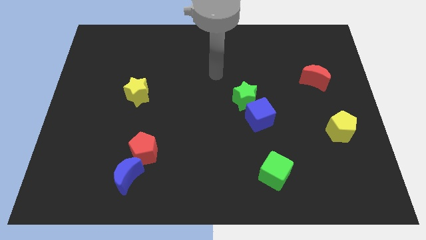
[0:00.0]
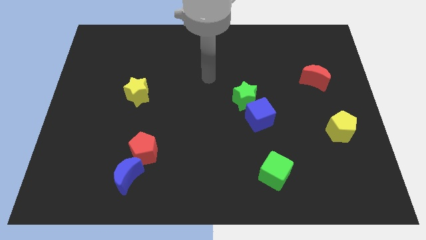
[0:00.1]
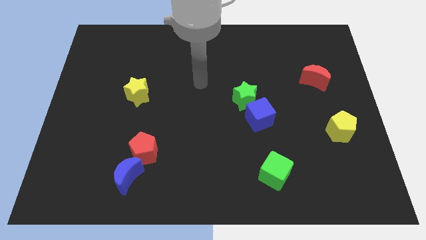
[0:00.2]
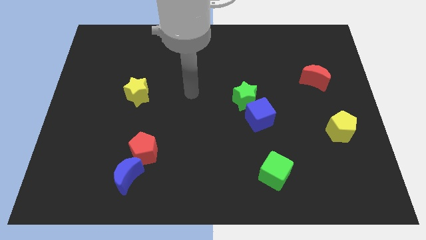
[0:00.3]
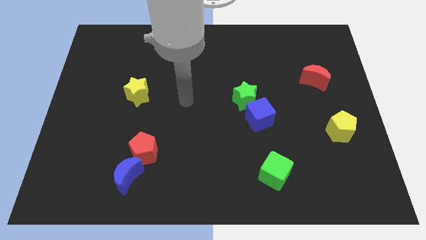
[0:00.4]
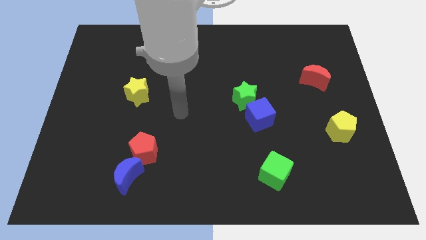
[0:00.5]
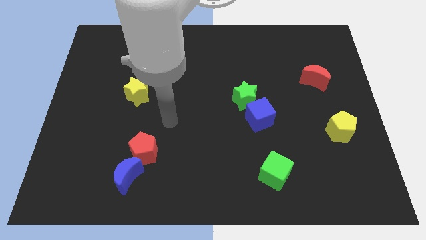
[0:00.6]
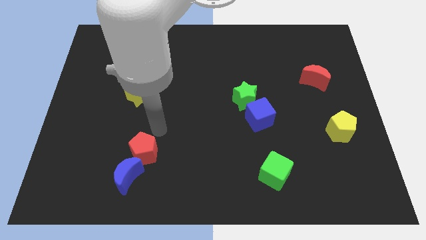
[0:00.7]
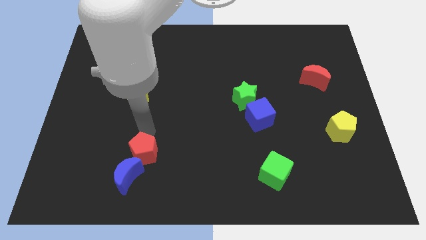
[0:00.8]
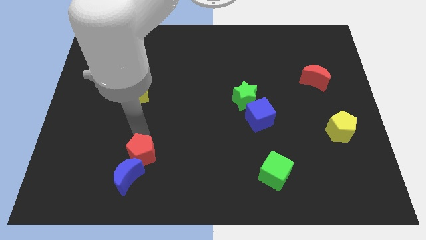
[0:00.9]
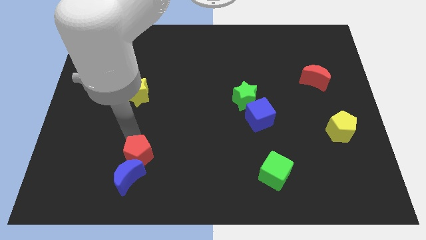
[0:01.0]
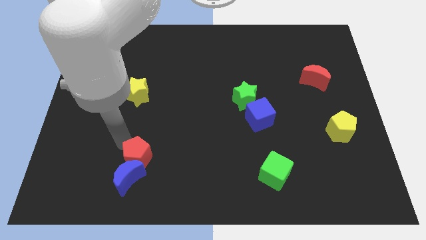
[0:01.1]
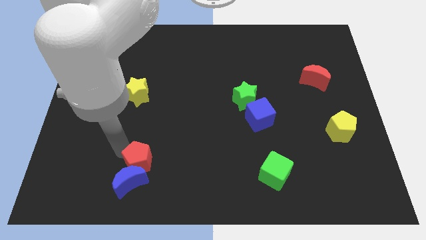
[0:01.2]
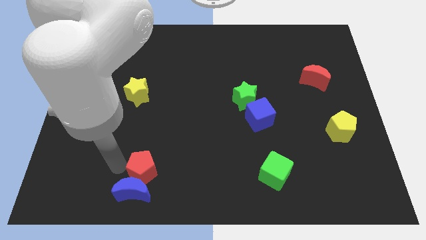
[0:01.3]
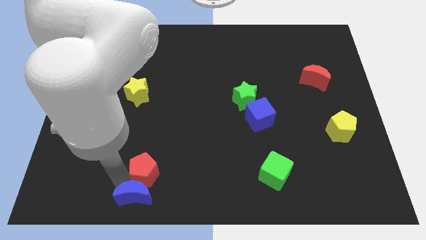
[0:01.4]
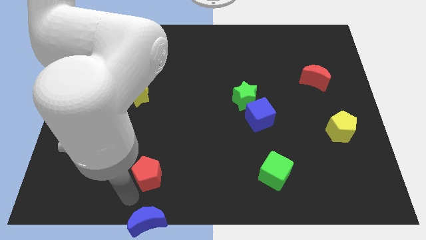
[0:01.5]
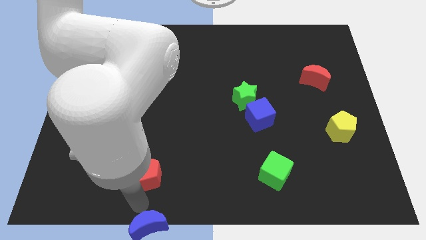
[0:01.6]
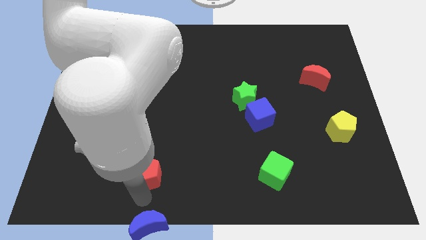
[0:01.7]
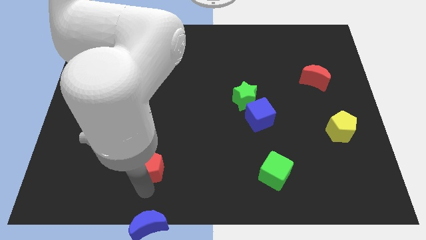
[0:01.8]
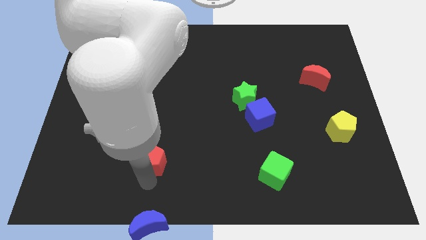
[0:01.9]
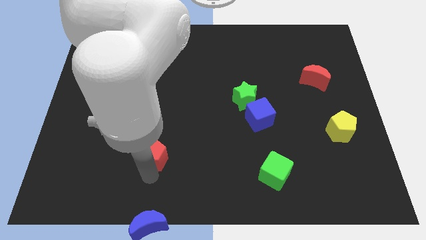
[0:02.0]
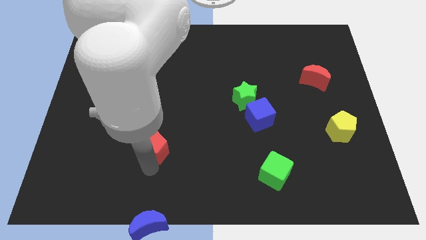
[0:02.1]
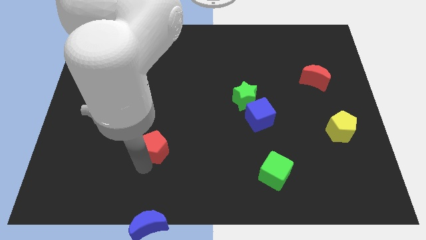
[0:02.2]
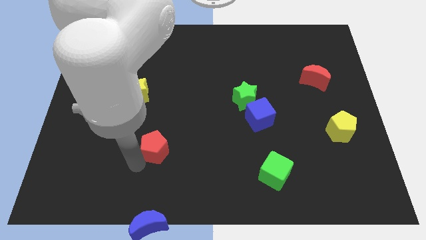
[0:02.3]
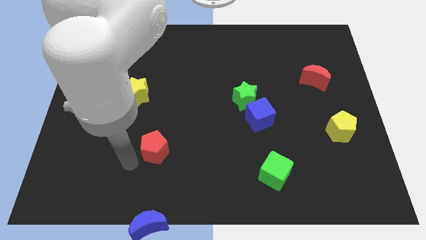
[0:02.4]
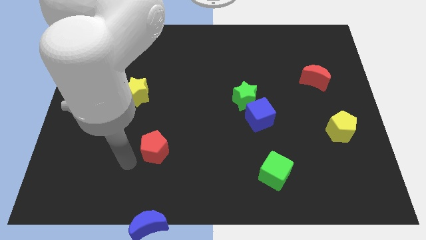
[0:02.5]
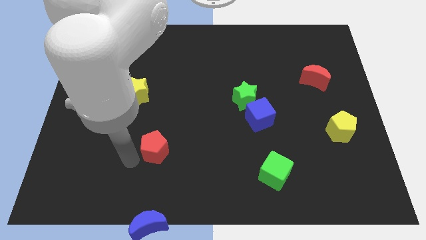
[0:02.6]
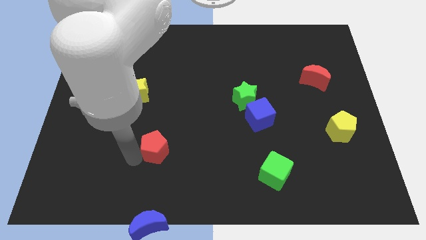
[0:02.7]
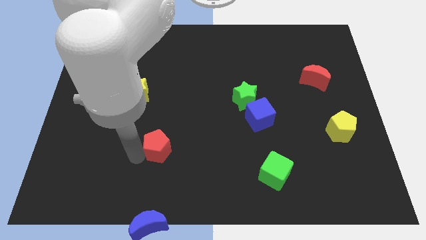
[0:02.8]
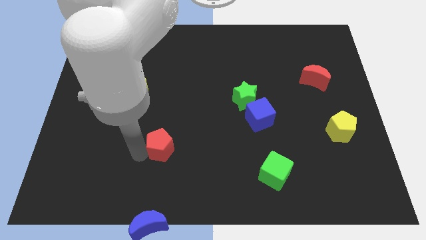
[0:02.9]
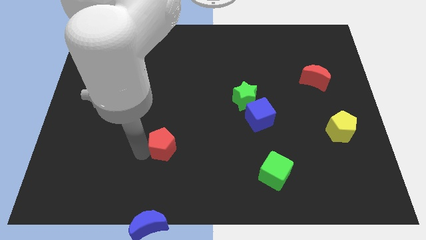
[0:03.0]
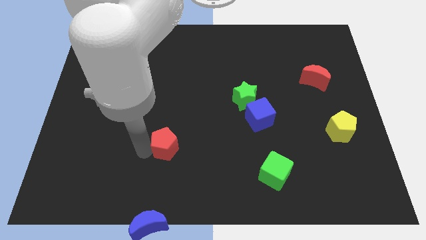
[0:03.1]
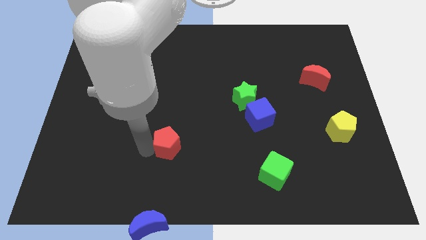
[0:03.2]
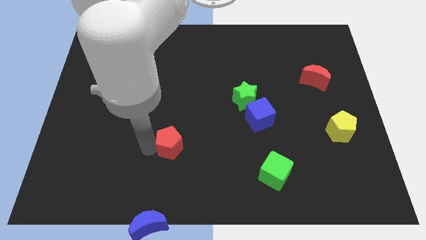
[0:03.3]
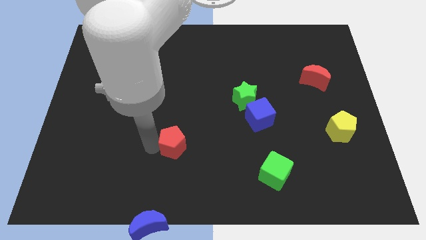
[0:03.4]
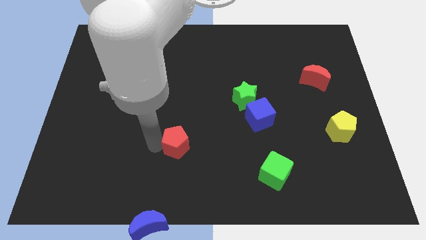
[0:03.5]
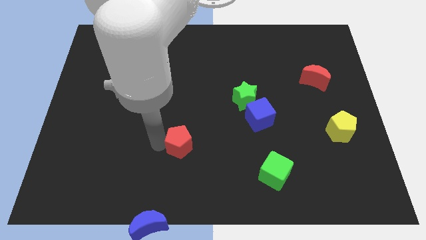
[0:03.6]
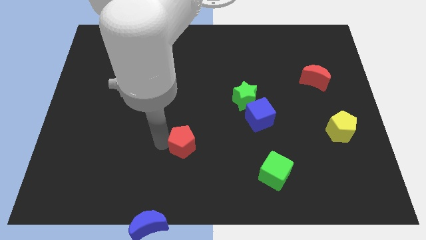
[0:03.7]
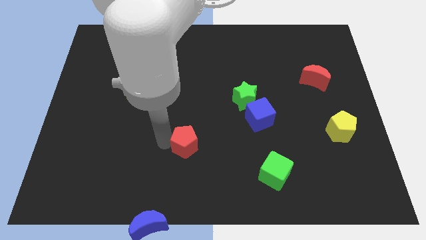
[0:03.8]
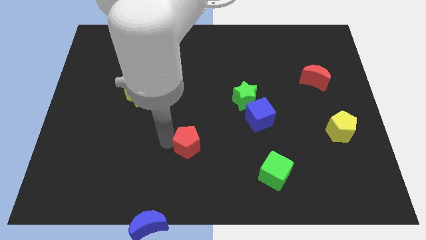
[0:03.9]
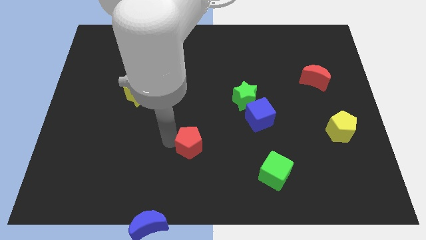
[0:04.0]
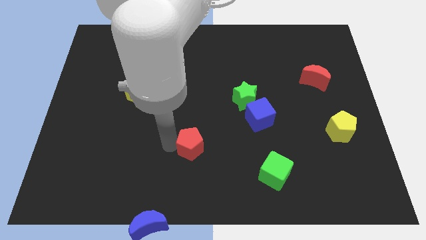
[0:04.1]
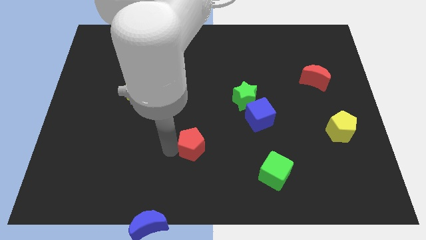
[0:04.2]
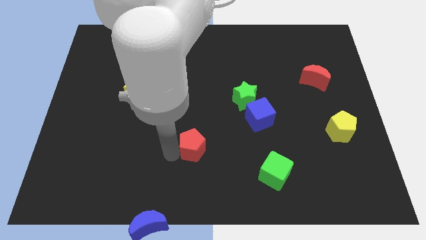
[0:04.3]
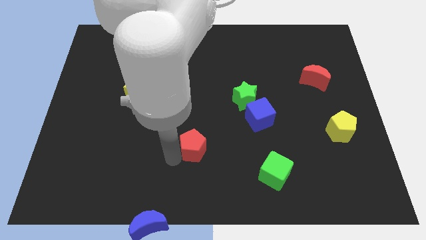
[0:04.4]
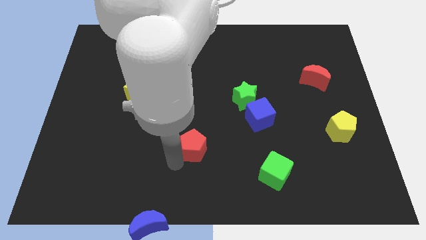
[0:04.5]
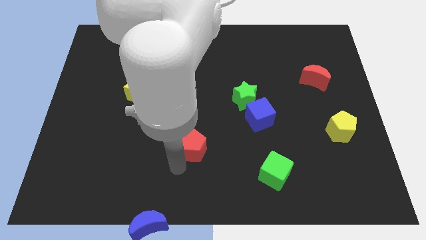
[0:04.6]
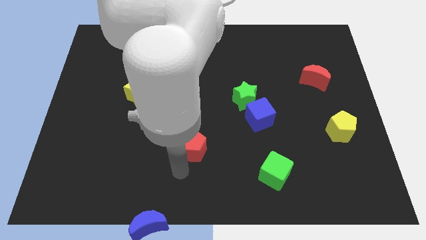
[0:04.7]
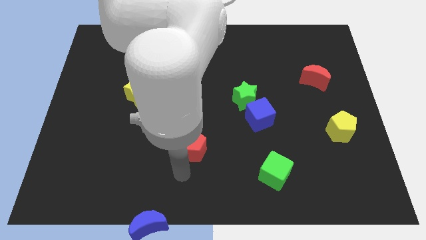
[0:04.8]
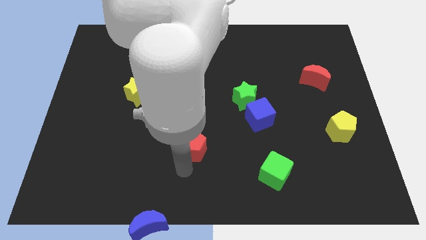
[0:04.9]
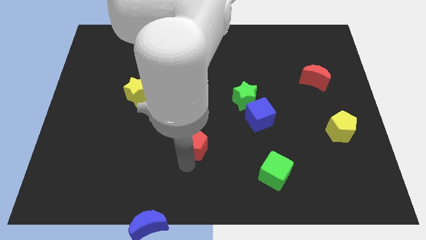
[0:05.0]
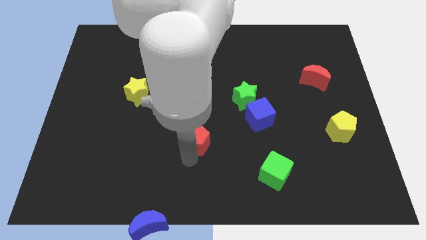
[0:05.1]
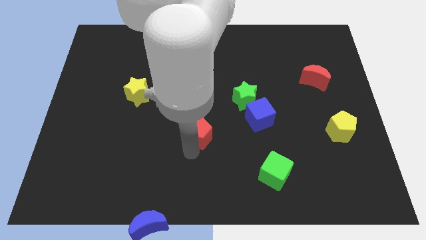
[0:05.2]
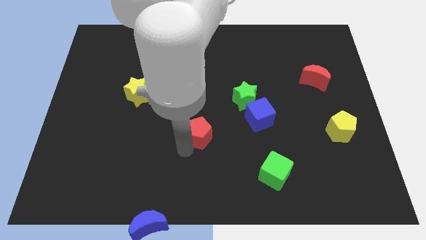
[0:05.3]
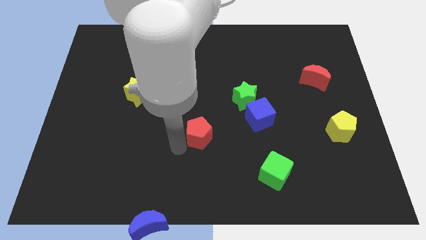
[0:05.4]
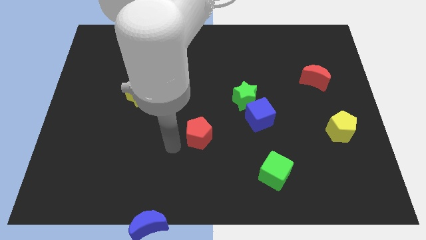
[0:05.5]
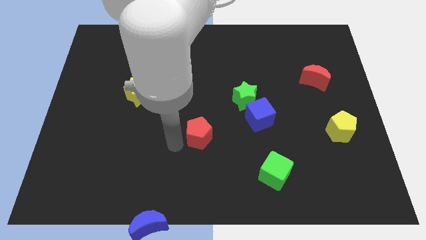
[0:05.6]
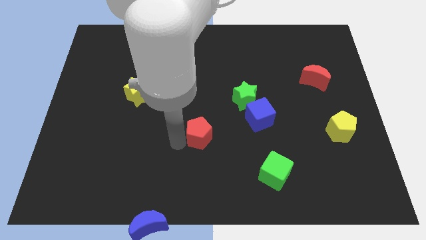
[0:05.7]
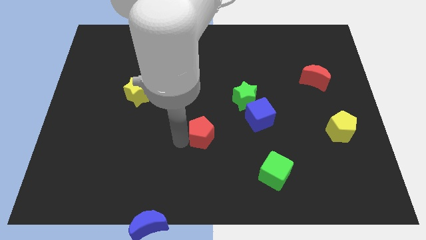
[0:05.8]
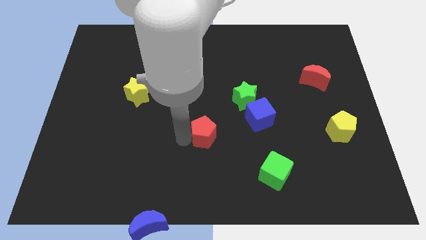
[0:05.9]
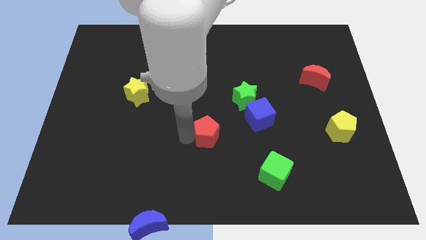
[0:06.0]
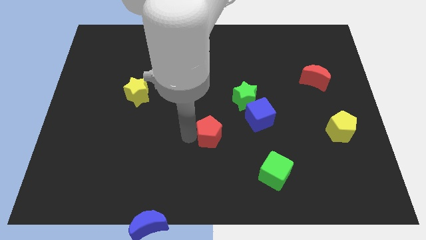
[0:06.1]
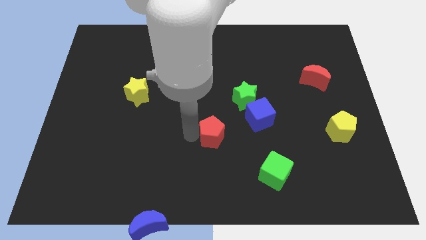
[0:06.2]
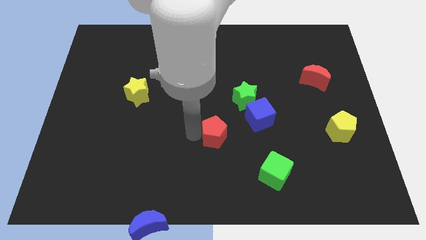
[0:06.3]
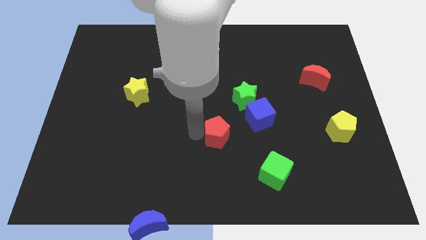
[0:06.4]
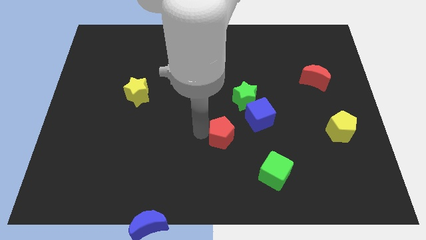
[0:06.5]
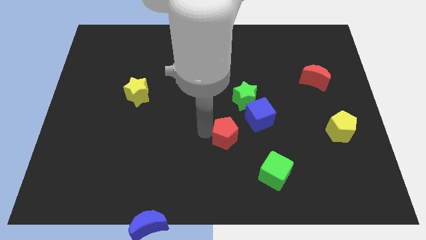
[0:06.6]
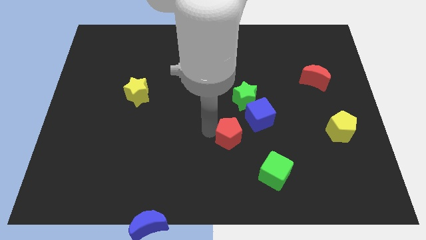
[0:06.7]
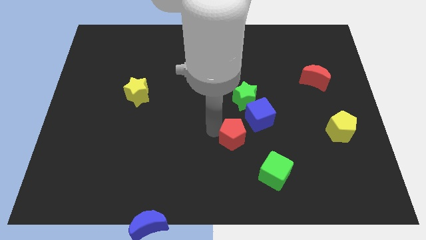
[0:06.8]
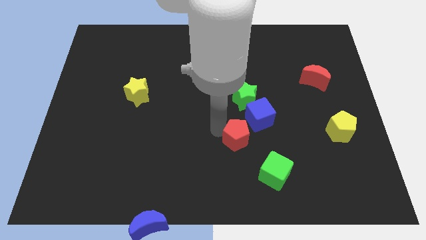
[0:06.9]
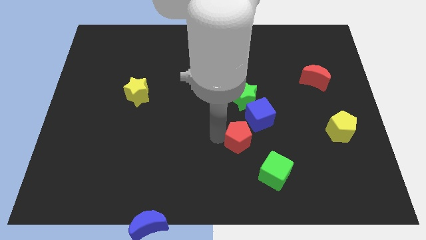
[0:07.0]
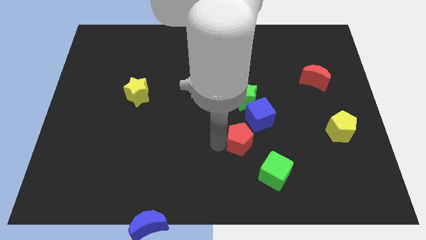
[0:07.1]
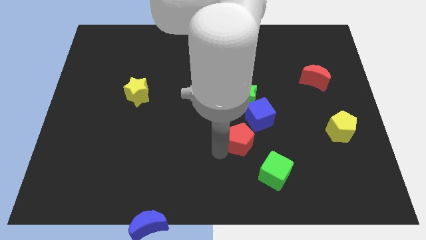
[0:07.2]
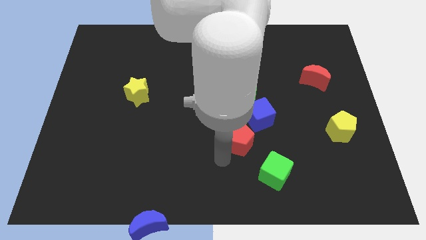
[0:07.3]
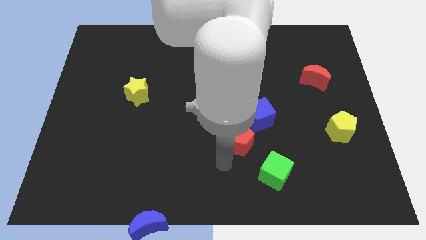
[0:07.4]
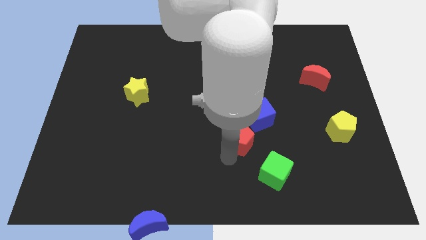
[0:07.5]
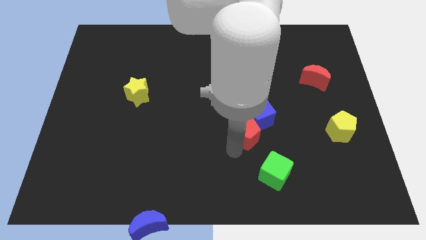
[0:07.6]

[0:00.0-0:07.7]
move the red pentagon to the blue cube
